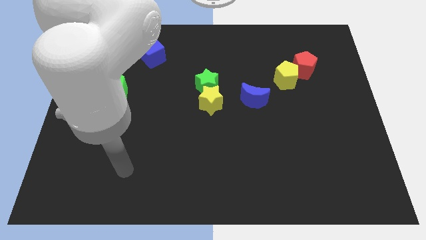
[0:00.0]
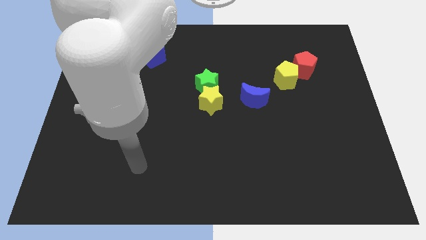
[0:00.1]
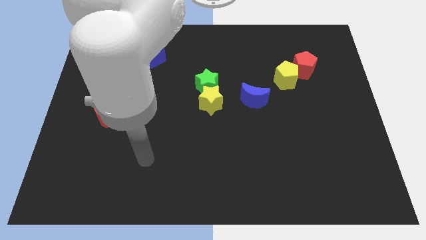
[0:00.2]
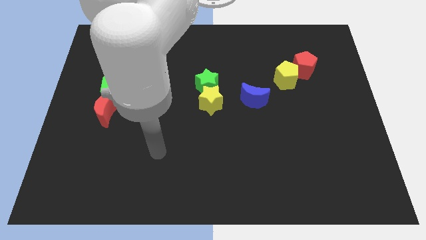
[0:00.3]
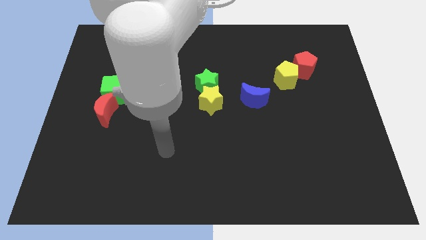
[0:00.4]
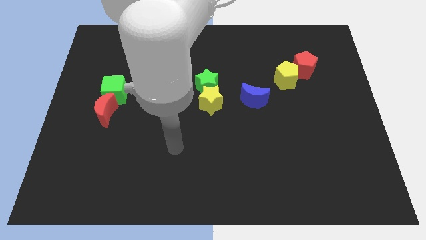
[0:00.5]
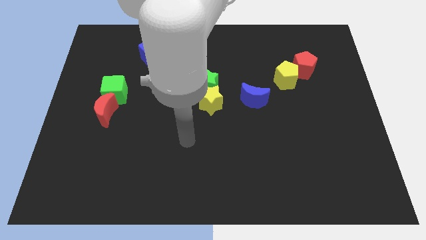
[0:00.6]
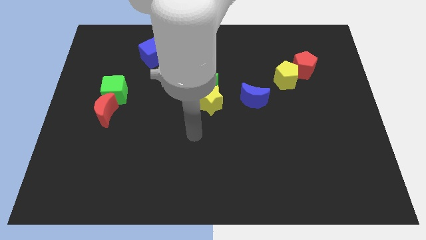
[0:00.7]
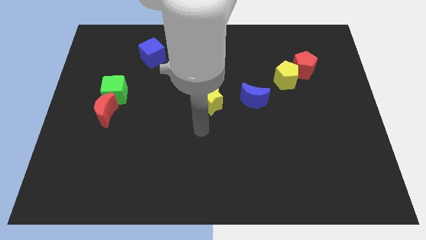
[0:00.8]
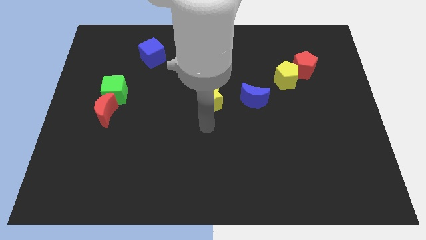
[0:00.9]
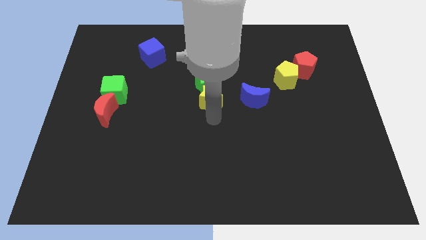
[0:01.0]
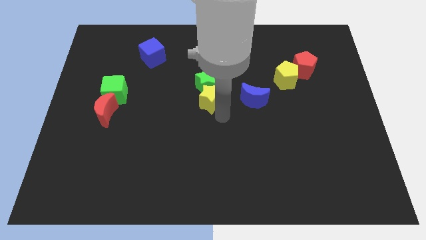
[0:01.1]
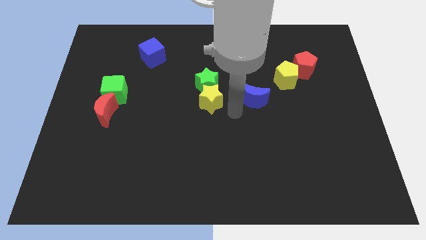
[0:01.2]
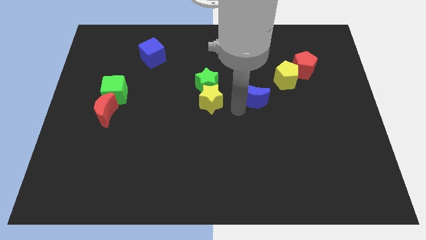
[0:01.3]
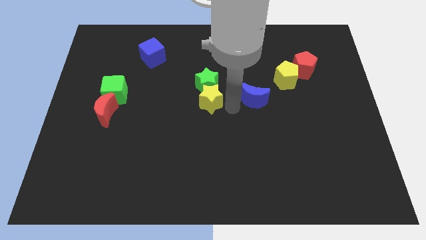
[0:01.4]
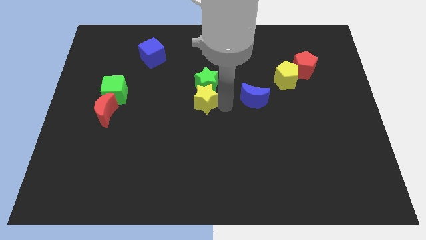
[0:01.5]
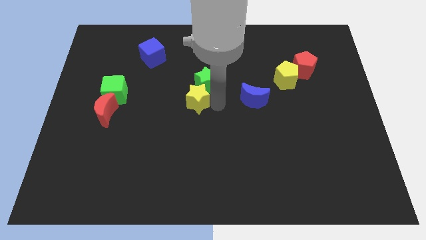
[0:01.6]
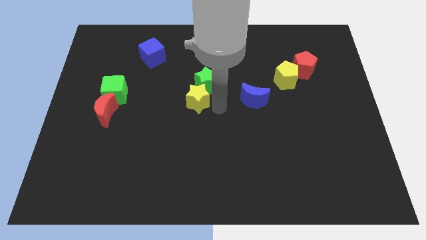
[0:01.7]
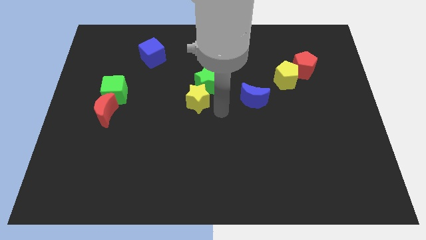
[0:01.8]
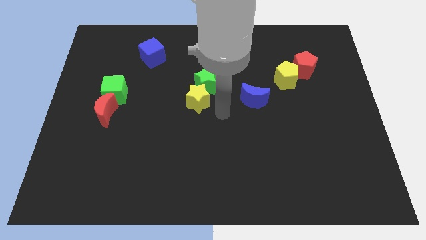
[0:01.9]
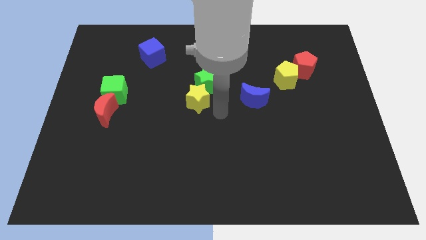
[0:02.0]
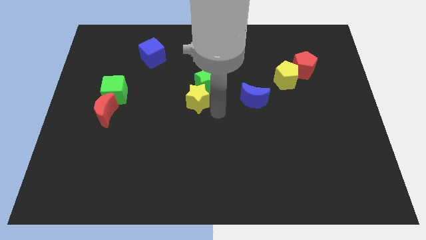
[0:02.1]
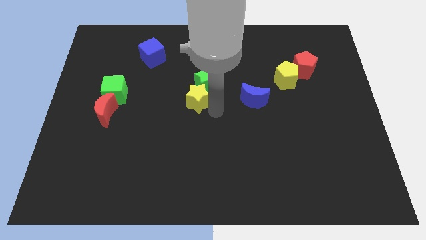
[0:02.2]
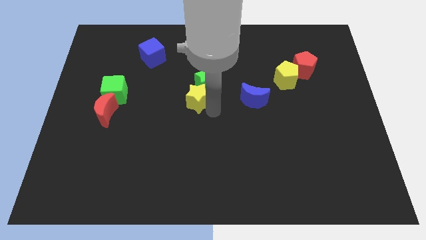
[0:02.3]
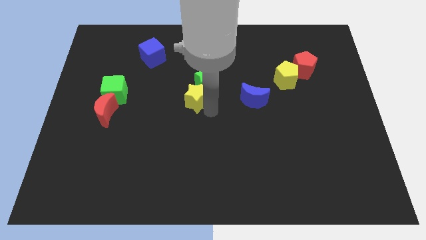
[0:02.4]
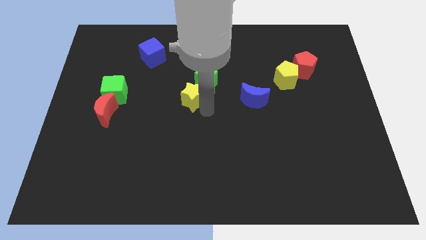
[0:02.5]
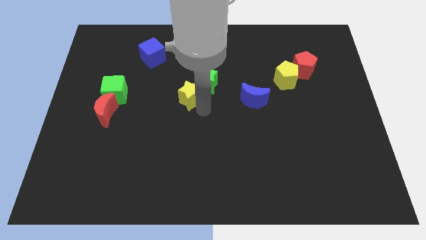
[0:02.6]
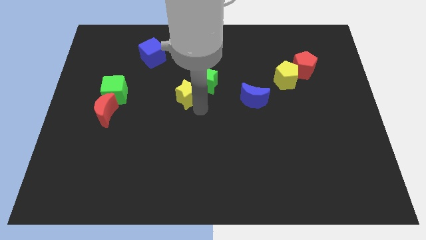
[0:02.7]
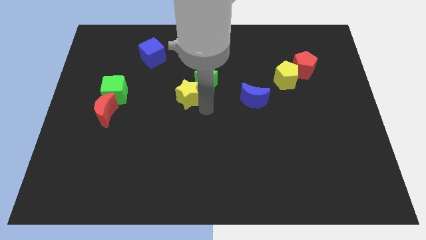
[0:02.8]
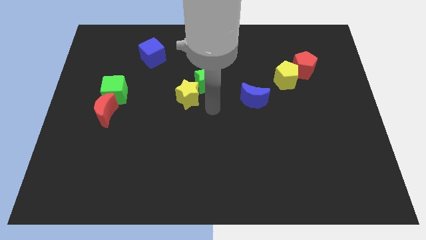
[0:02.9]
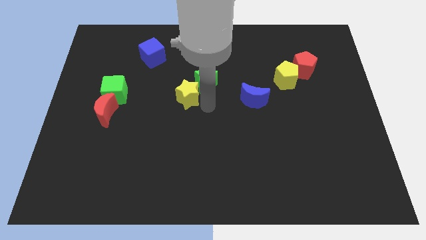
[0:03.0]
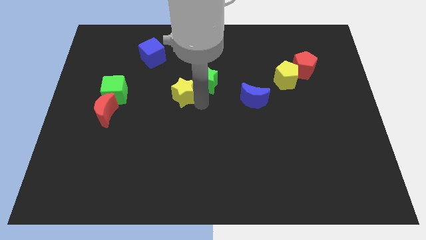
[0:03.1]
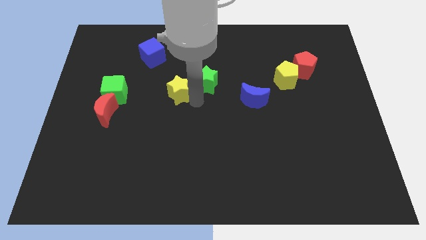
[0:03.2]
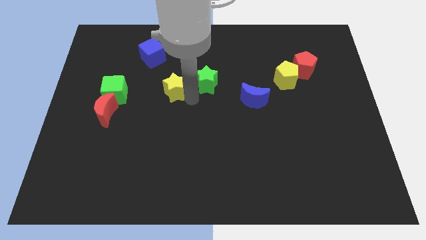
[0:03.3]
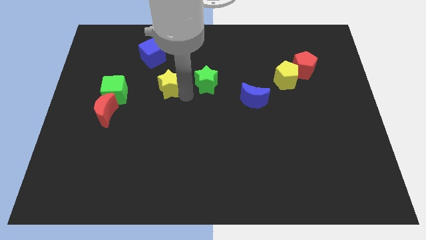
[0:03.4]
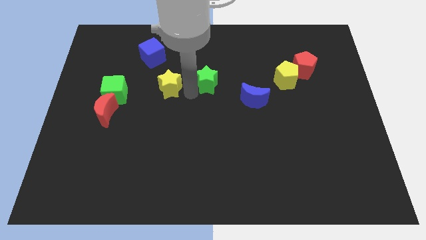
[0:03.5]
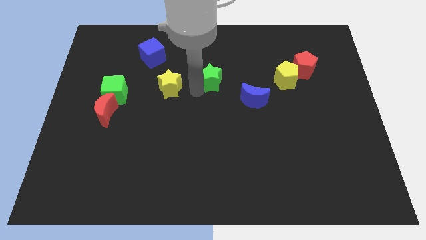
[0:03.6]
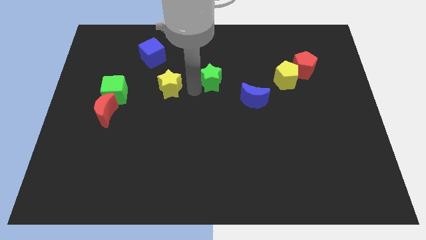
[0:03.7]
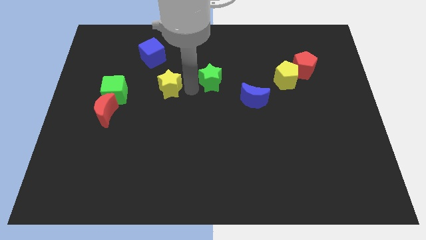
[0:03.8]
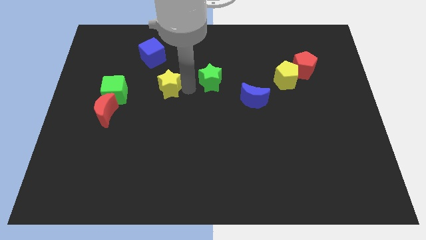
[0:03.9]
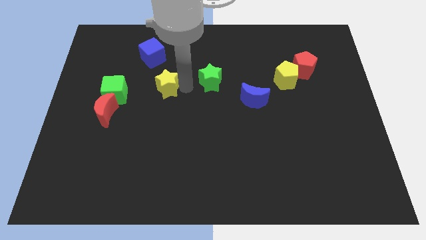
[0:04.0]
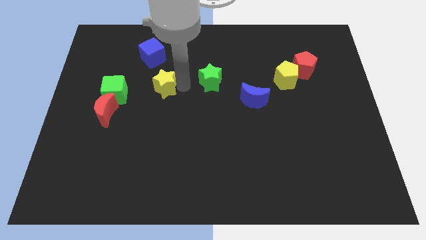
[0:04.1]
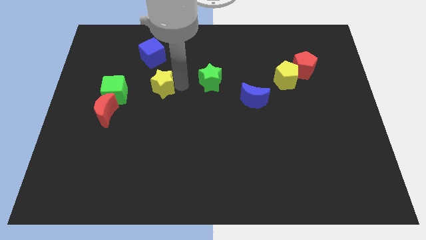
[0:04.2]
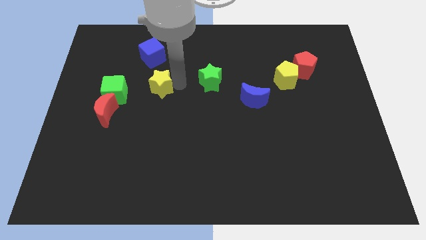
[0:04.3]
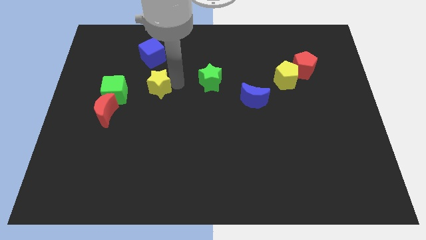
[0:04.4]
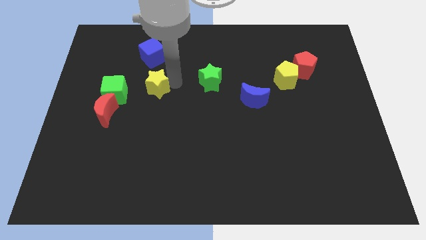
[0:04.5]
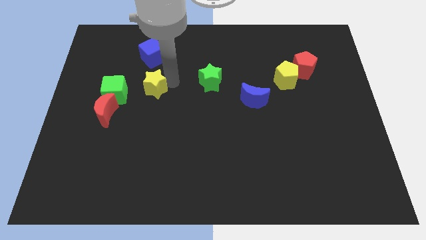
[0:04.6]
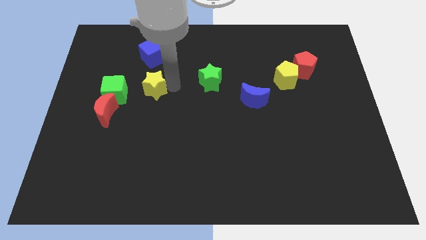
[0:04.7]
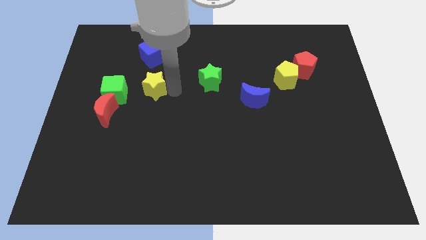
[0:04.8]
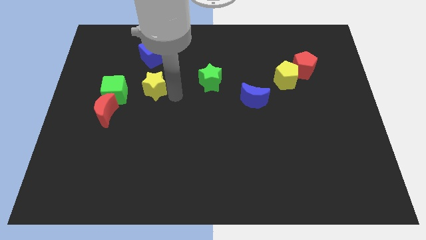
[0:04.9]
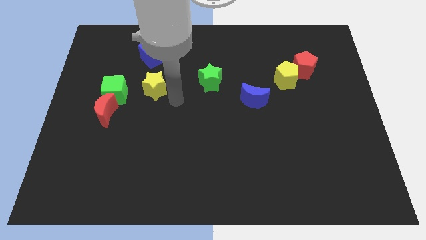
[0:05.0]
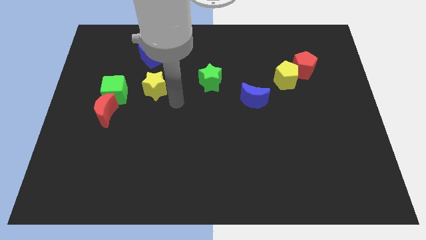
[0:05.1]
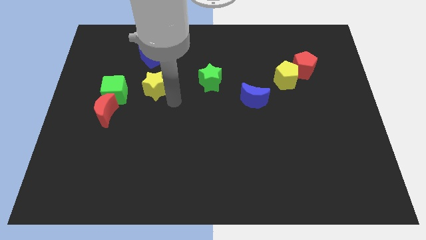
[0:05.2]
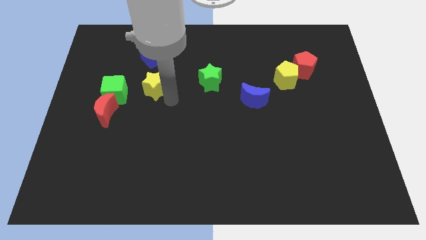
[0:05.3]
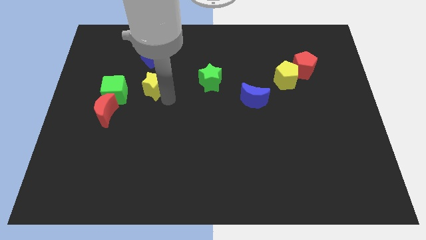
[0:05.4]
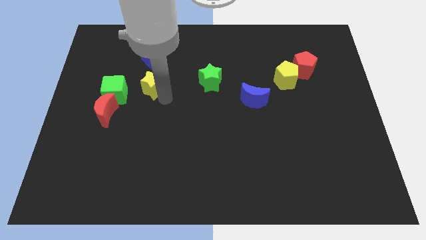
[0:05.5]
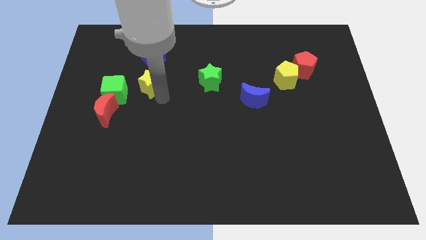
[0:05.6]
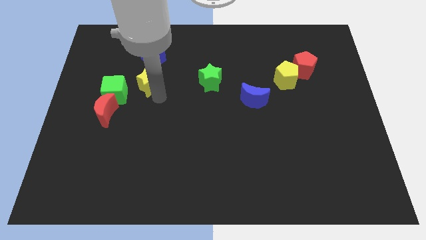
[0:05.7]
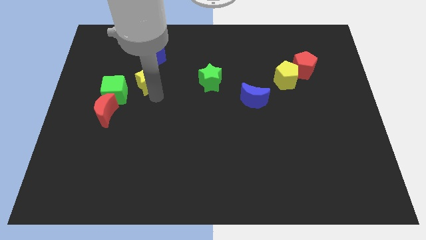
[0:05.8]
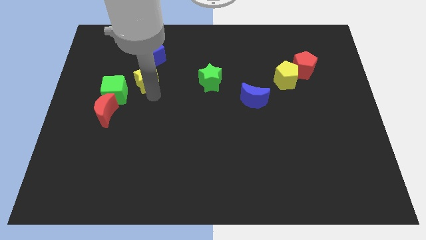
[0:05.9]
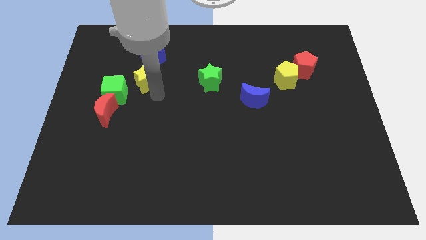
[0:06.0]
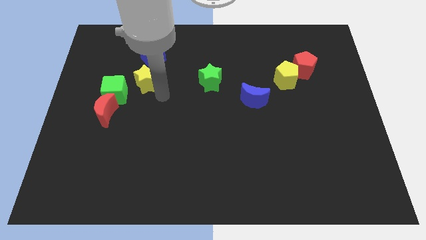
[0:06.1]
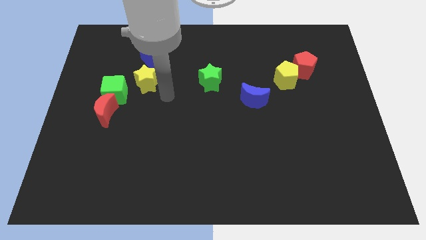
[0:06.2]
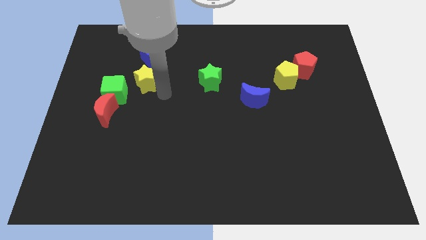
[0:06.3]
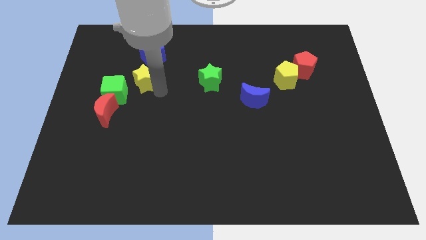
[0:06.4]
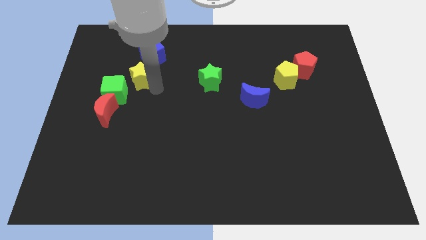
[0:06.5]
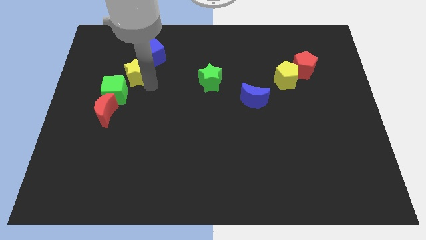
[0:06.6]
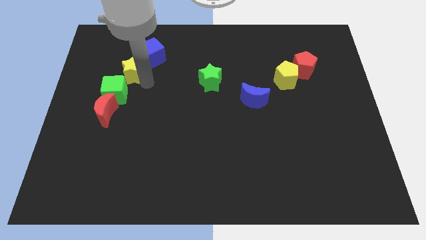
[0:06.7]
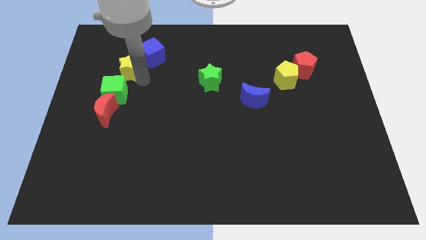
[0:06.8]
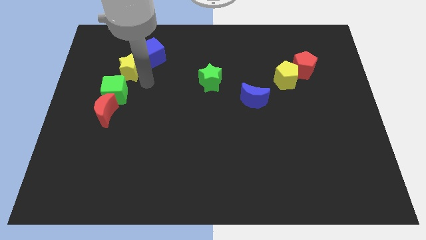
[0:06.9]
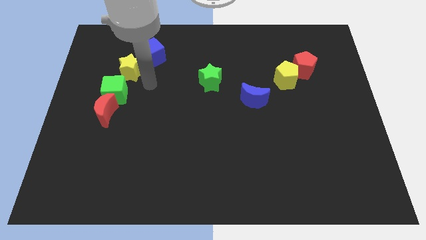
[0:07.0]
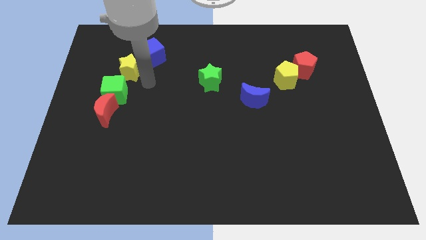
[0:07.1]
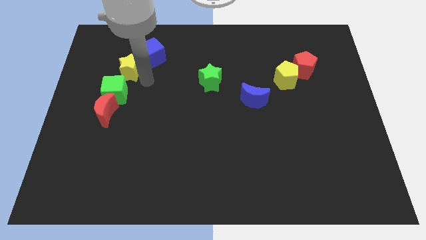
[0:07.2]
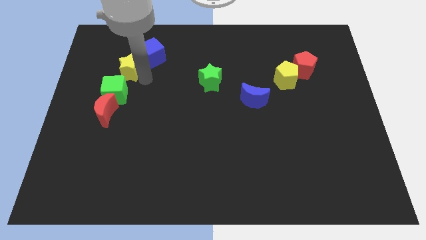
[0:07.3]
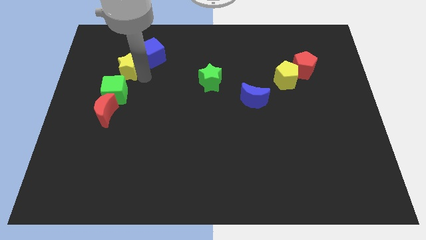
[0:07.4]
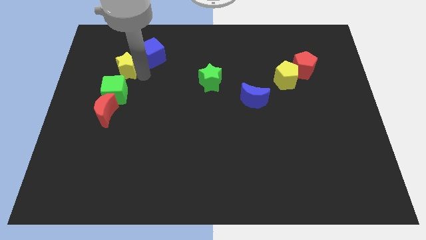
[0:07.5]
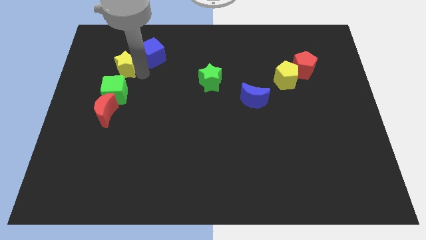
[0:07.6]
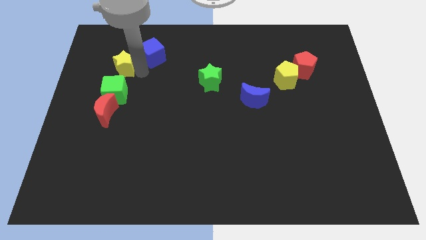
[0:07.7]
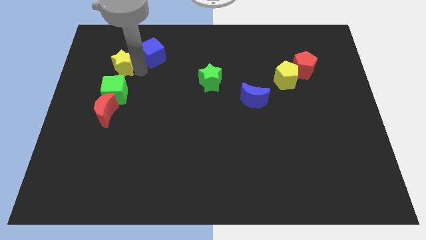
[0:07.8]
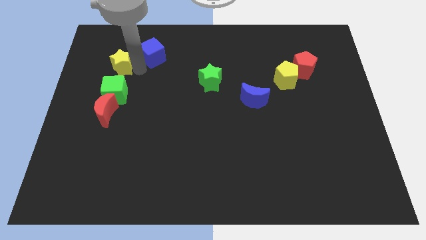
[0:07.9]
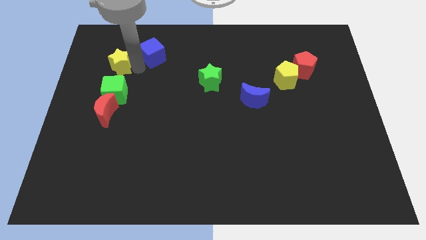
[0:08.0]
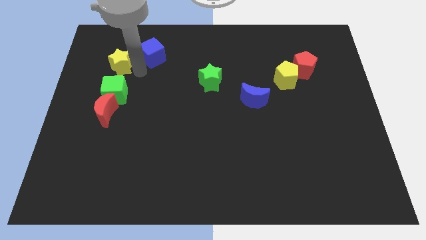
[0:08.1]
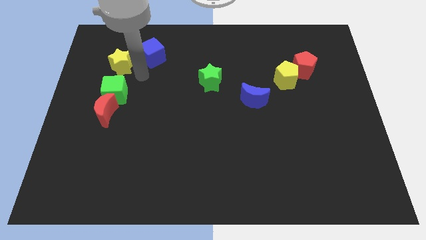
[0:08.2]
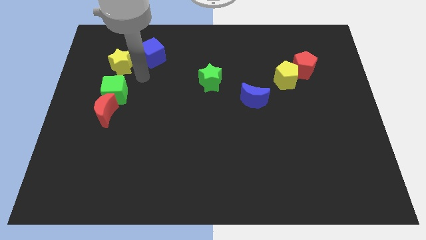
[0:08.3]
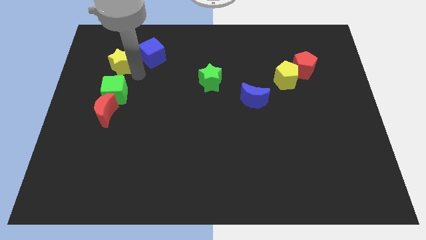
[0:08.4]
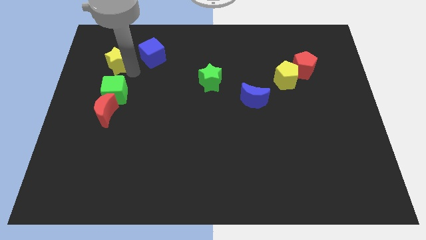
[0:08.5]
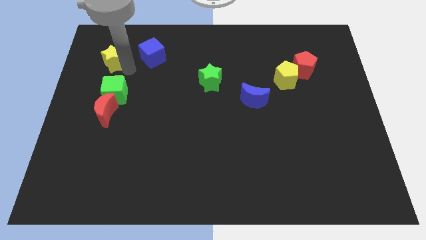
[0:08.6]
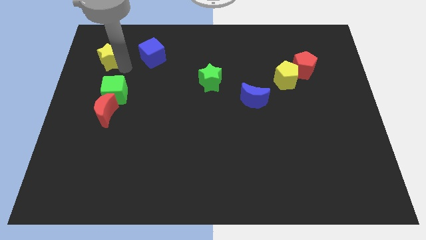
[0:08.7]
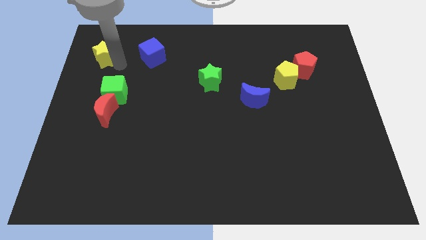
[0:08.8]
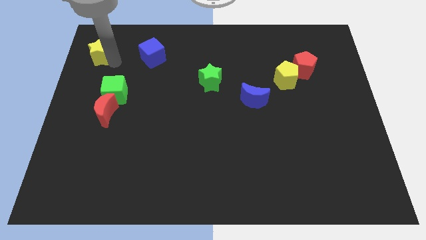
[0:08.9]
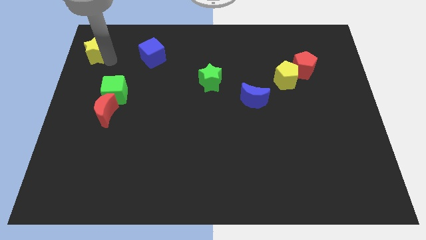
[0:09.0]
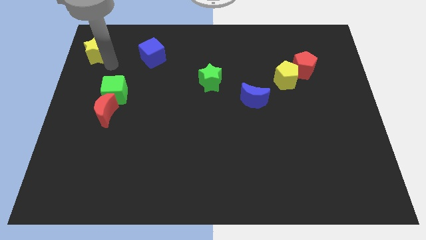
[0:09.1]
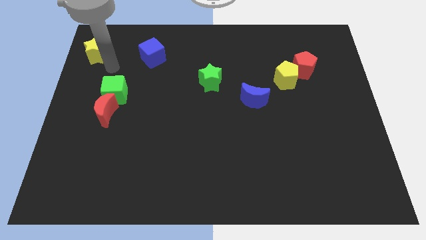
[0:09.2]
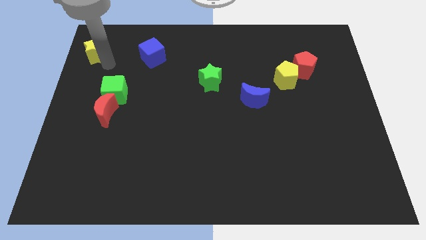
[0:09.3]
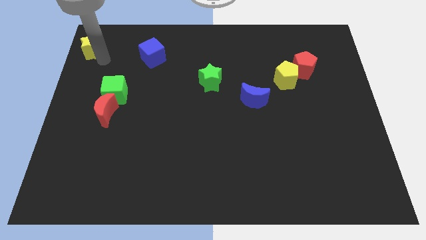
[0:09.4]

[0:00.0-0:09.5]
move the yellow star to the top left of the board
